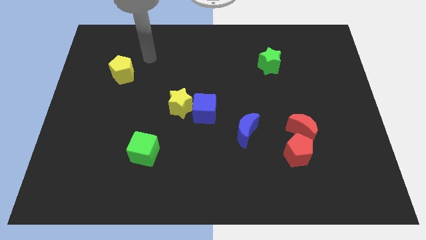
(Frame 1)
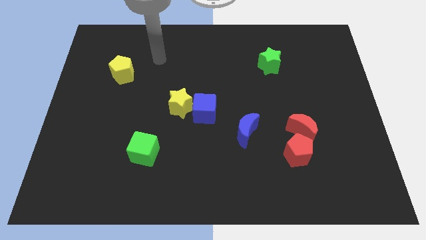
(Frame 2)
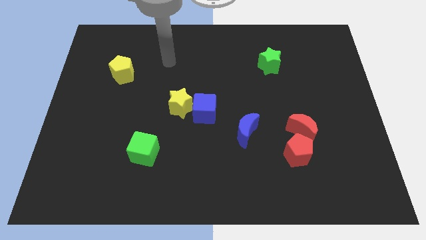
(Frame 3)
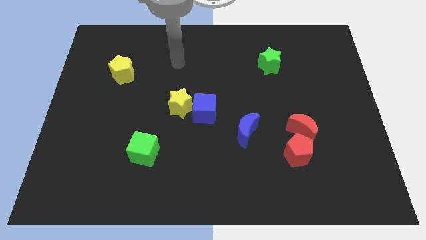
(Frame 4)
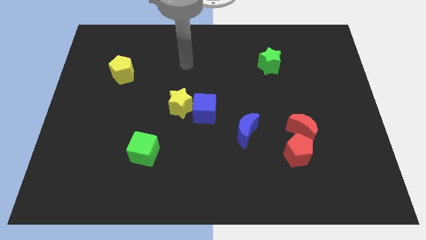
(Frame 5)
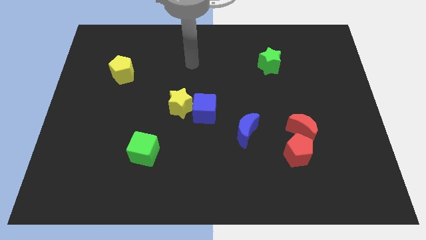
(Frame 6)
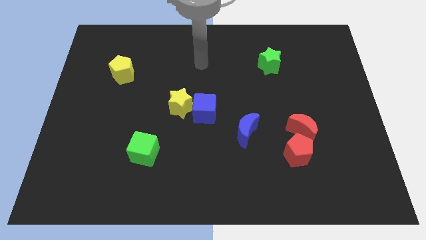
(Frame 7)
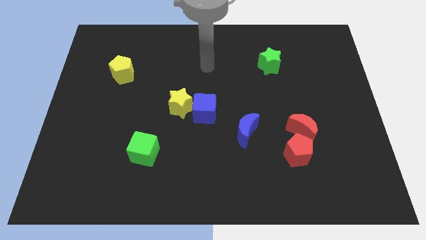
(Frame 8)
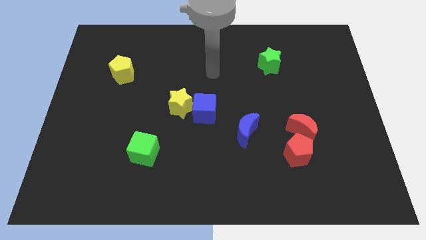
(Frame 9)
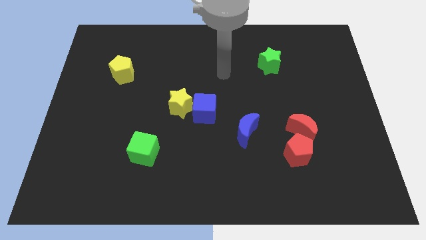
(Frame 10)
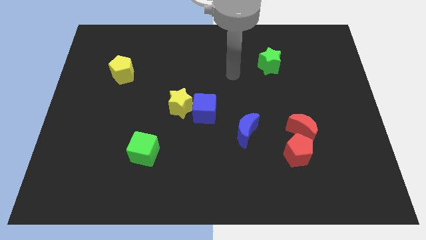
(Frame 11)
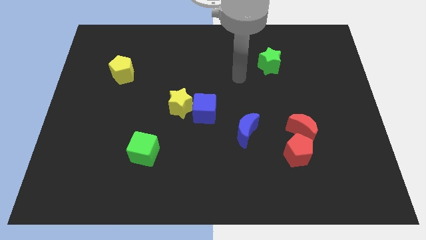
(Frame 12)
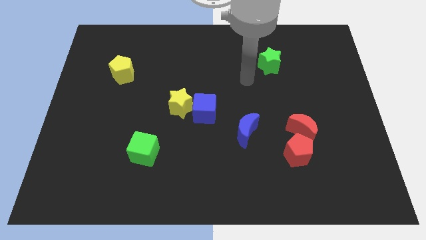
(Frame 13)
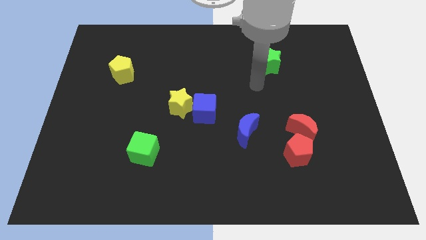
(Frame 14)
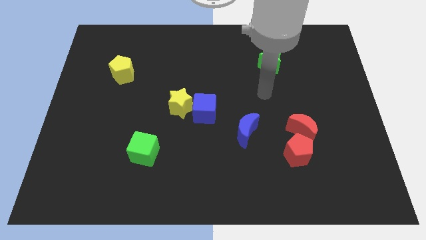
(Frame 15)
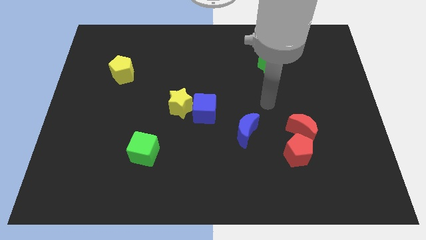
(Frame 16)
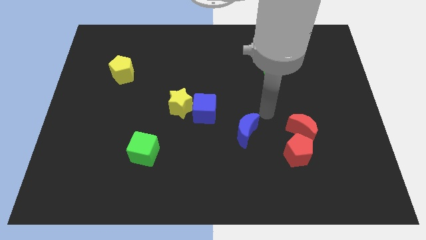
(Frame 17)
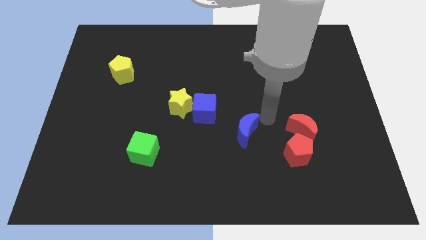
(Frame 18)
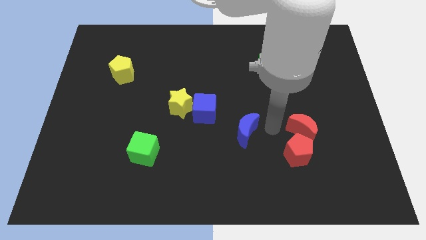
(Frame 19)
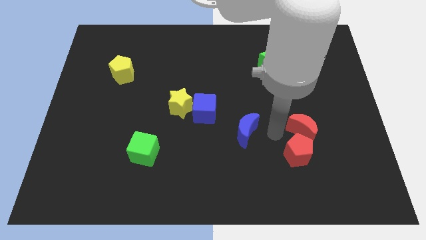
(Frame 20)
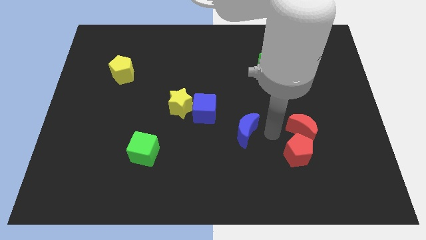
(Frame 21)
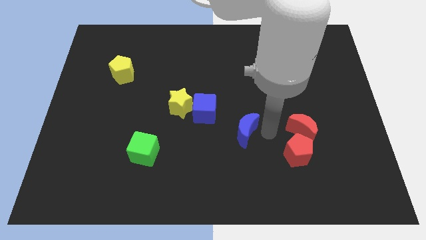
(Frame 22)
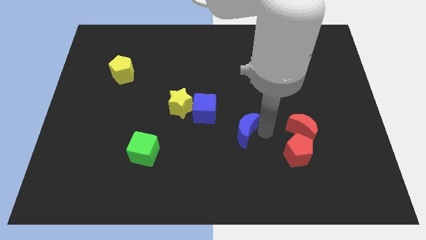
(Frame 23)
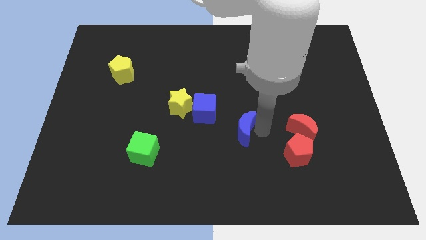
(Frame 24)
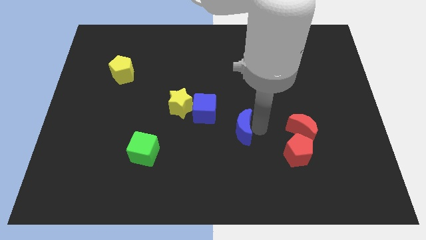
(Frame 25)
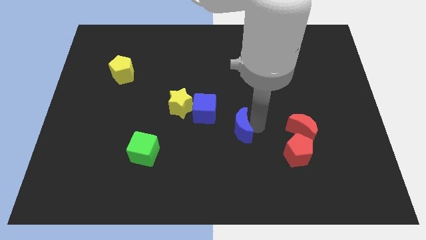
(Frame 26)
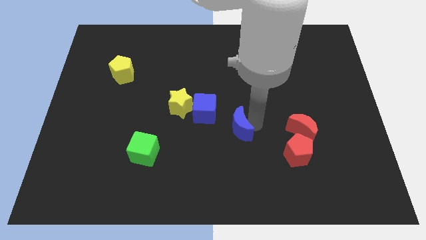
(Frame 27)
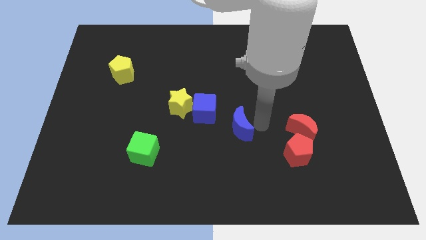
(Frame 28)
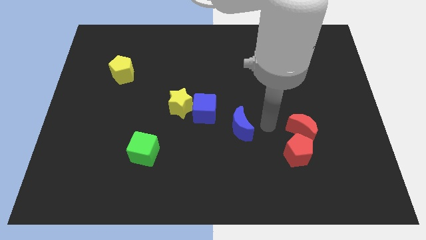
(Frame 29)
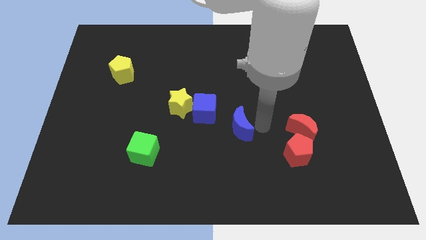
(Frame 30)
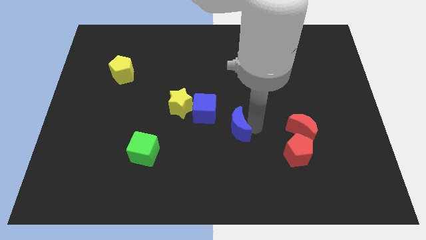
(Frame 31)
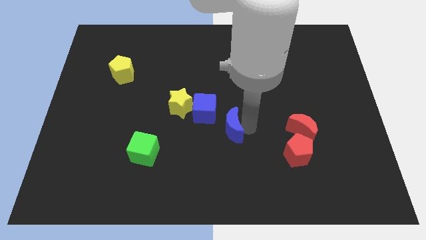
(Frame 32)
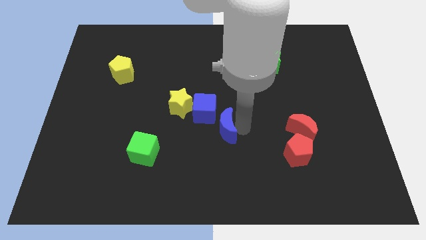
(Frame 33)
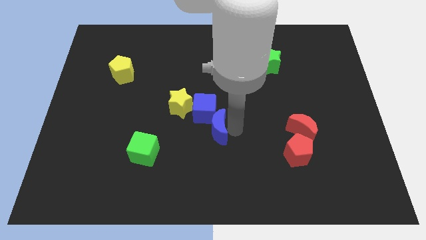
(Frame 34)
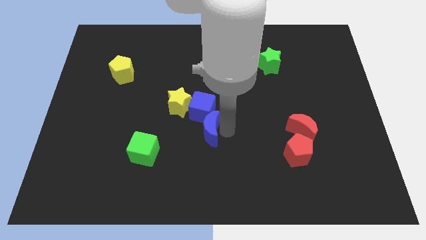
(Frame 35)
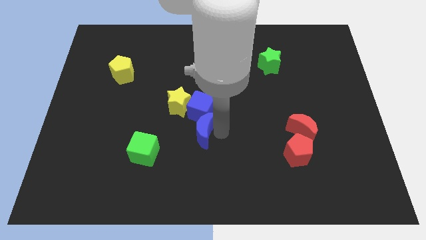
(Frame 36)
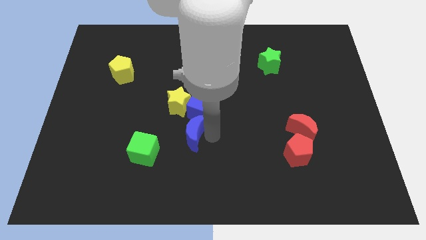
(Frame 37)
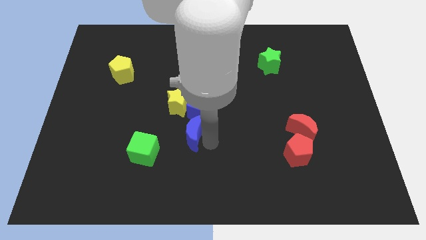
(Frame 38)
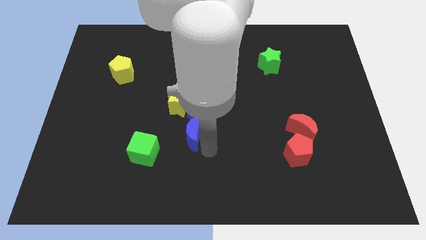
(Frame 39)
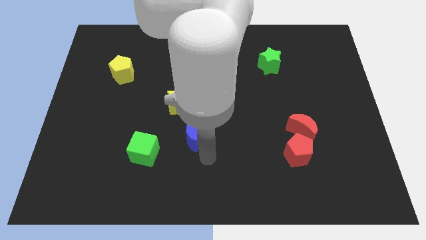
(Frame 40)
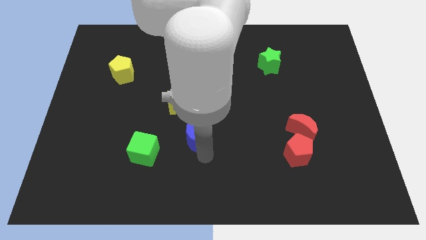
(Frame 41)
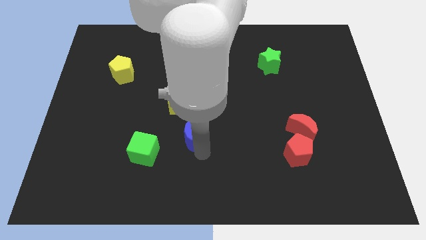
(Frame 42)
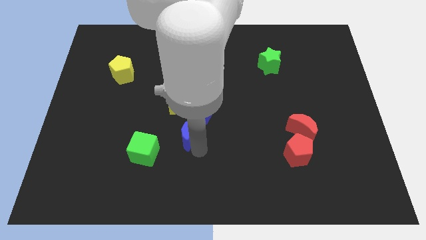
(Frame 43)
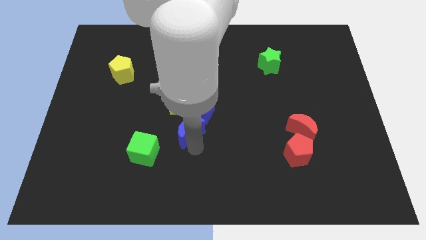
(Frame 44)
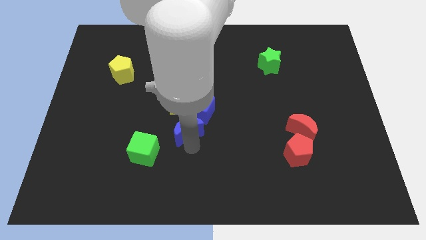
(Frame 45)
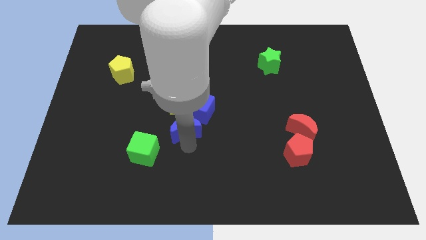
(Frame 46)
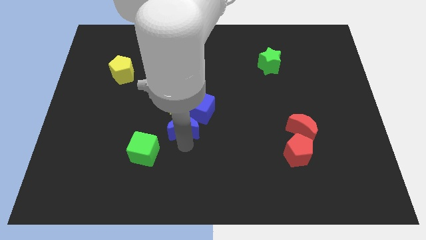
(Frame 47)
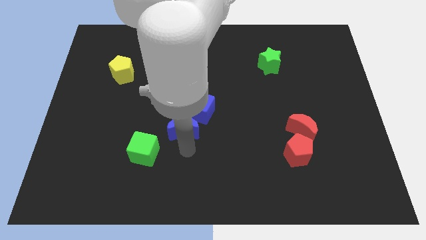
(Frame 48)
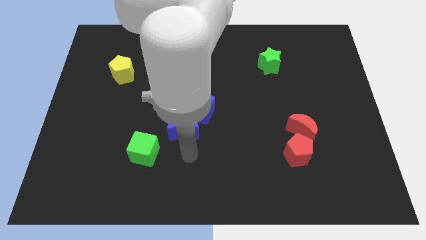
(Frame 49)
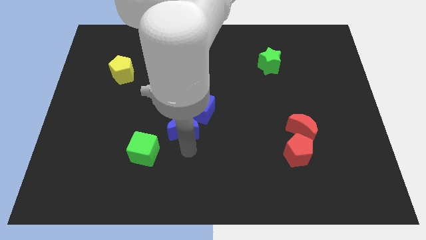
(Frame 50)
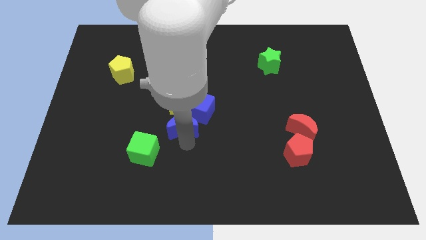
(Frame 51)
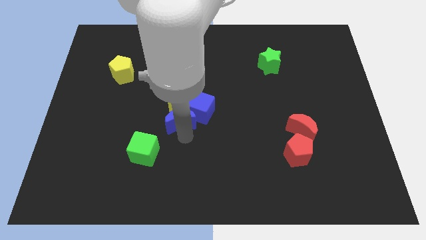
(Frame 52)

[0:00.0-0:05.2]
push the blue moon towards the yellow star

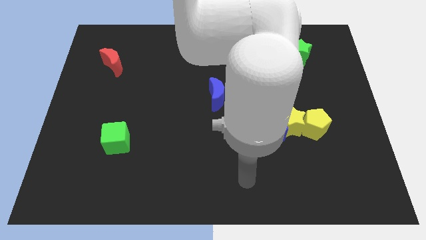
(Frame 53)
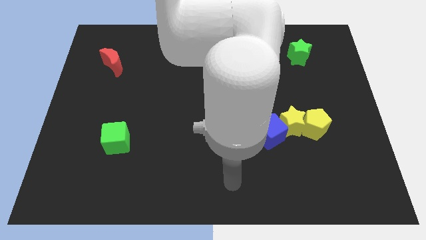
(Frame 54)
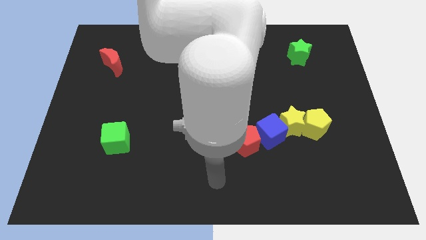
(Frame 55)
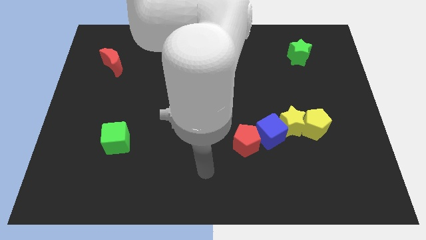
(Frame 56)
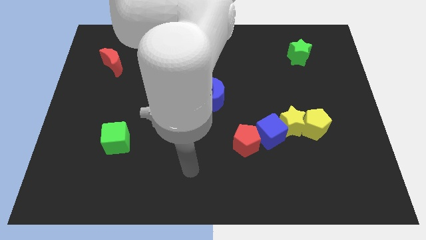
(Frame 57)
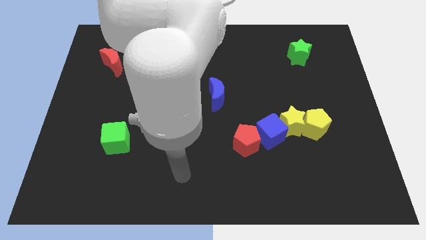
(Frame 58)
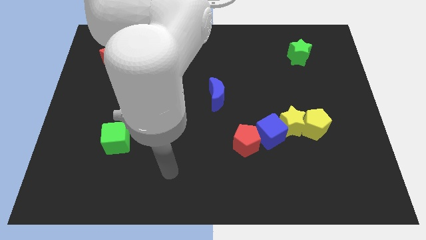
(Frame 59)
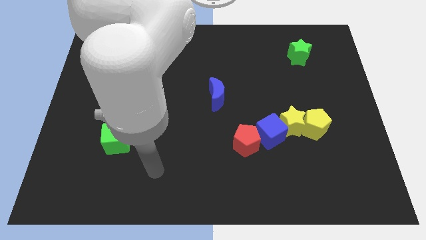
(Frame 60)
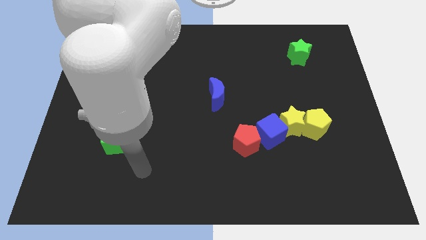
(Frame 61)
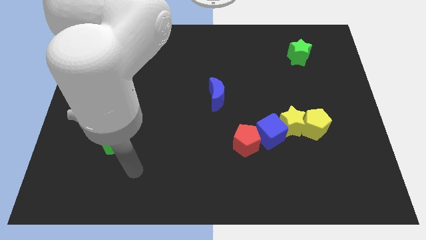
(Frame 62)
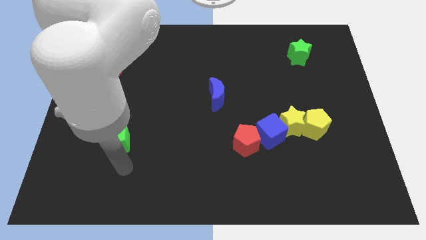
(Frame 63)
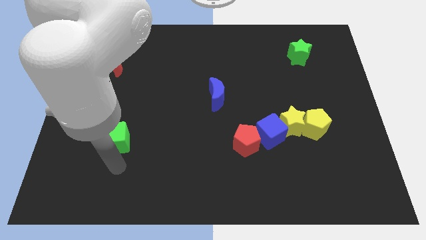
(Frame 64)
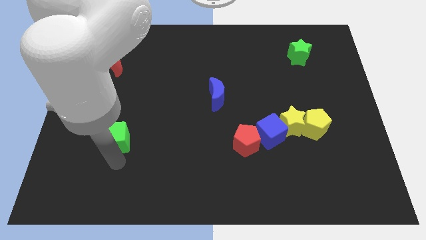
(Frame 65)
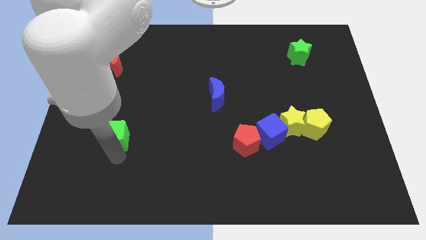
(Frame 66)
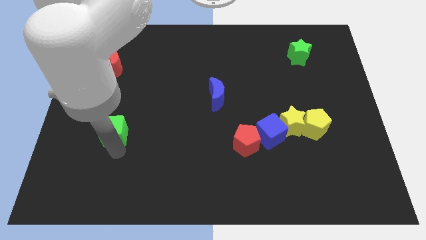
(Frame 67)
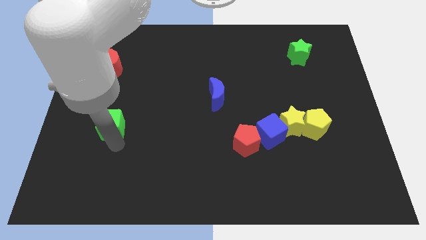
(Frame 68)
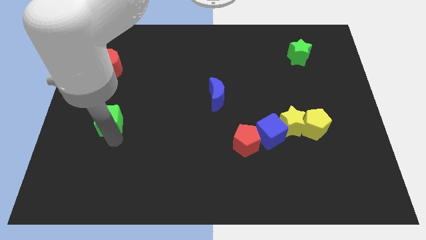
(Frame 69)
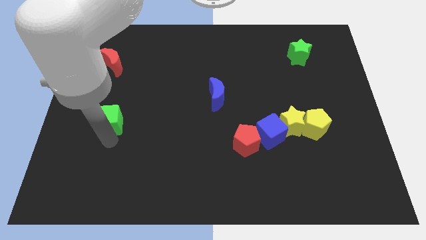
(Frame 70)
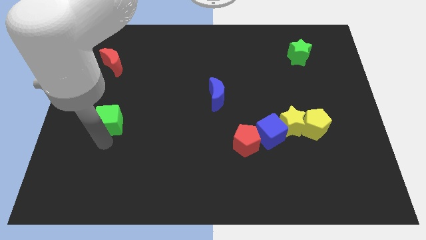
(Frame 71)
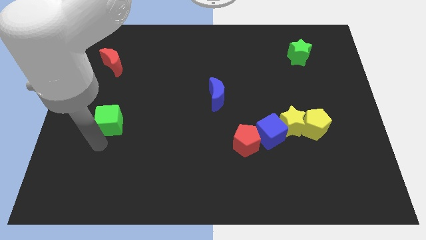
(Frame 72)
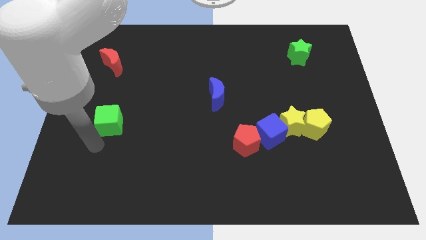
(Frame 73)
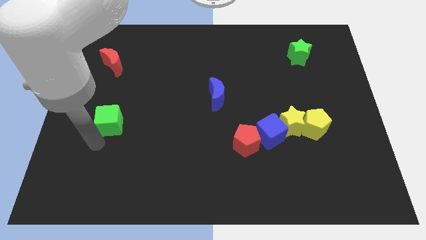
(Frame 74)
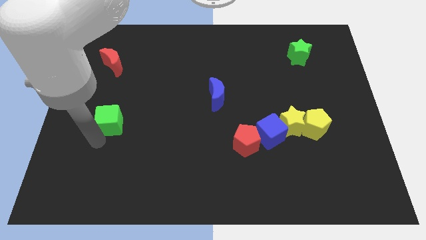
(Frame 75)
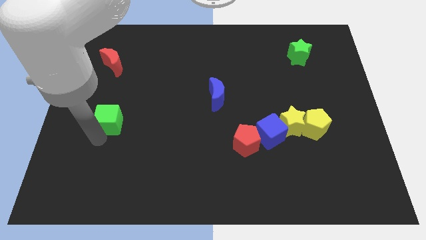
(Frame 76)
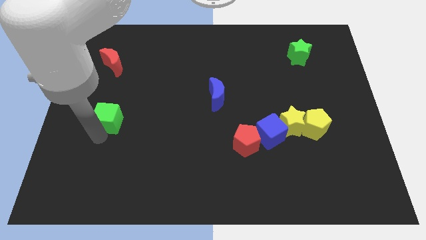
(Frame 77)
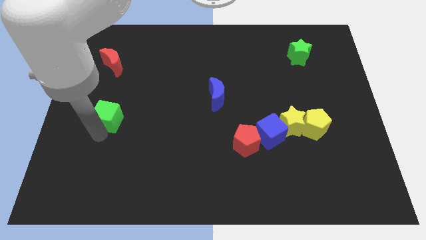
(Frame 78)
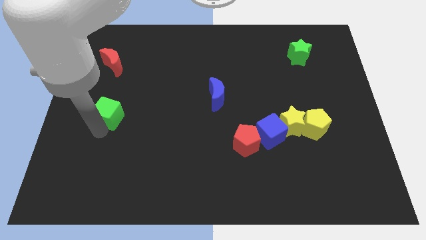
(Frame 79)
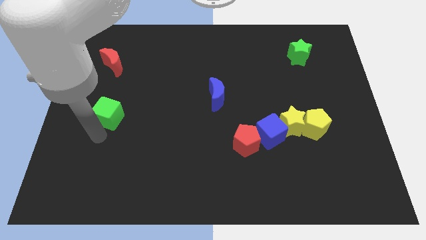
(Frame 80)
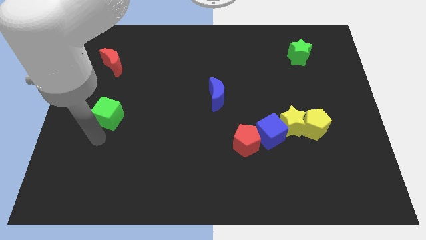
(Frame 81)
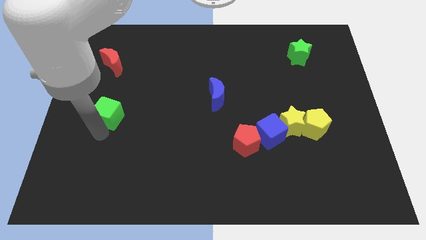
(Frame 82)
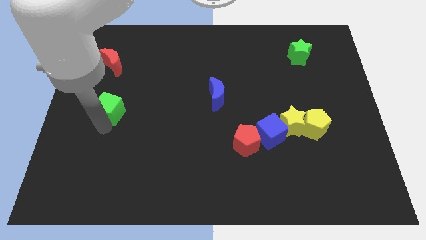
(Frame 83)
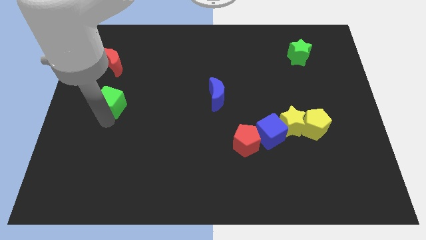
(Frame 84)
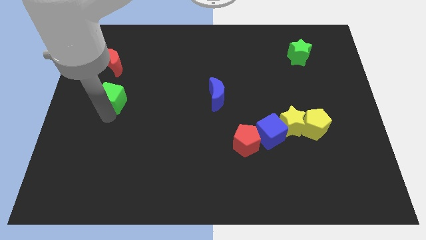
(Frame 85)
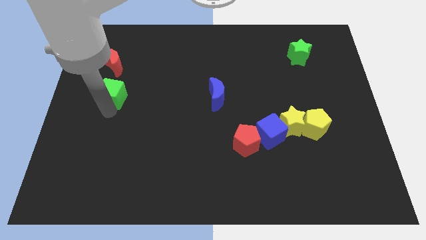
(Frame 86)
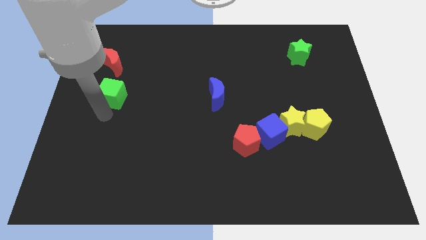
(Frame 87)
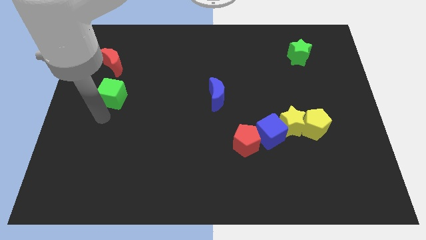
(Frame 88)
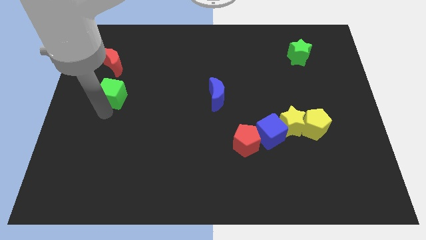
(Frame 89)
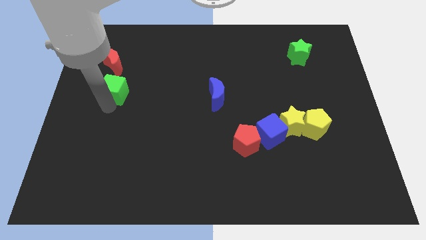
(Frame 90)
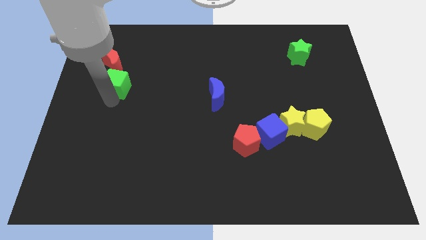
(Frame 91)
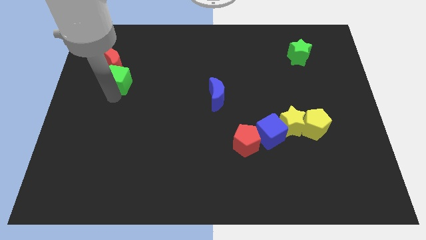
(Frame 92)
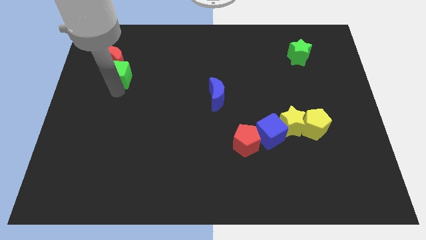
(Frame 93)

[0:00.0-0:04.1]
slide the green cube towards the red moon
